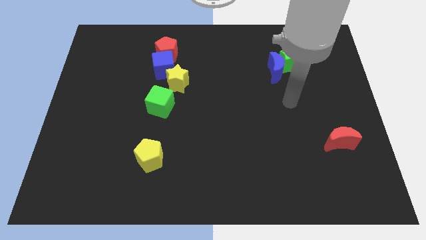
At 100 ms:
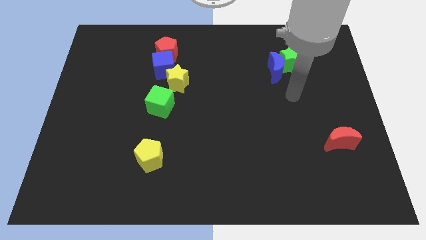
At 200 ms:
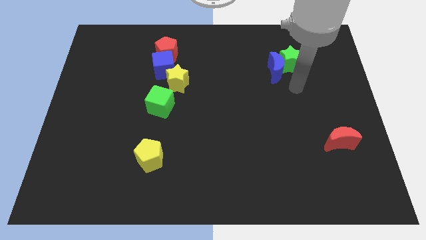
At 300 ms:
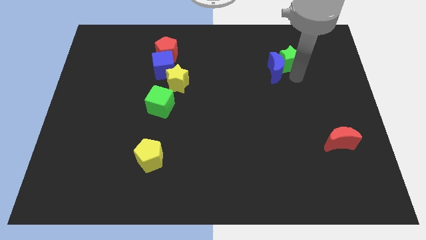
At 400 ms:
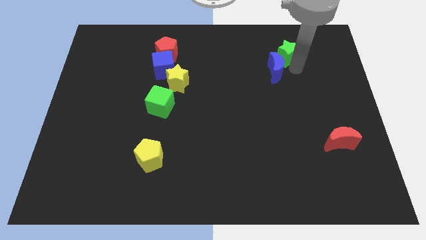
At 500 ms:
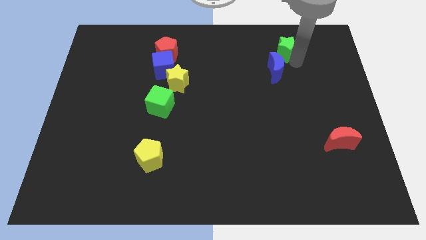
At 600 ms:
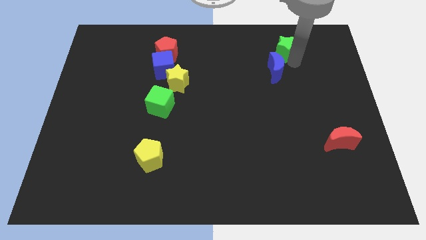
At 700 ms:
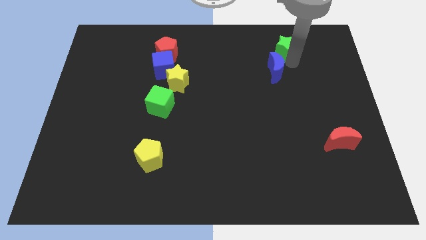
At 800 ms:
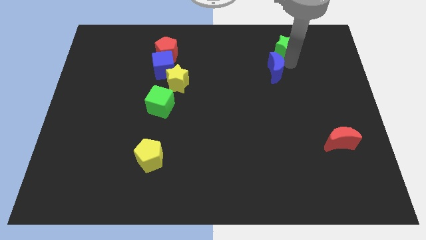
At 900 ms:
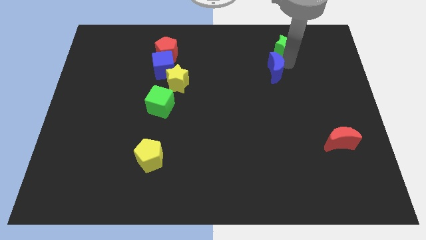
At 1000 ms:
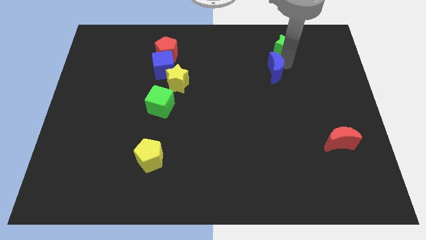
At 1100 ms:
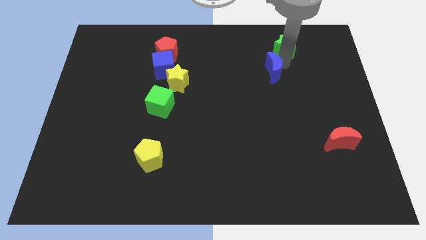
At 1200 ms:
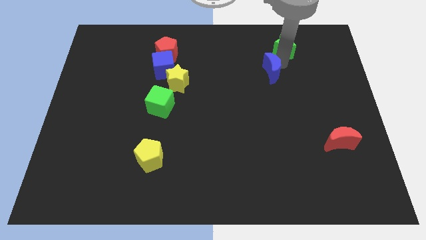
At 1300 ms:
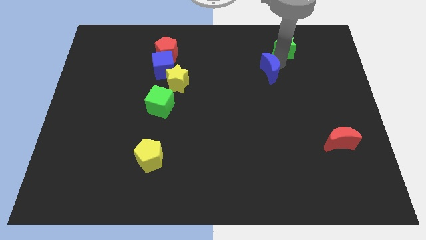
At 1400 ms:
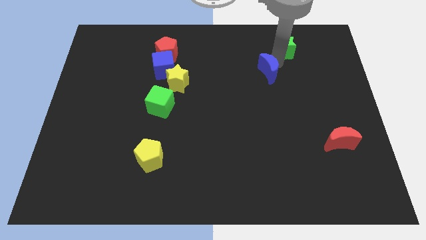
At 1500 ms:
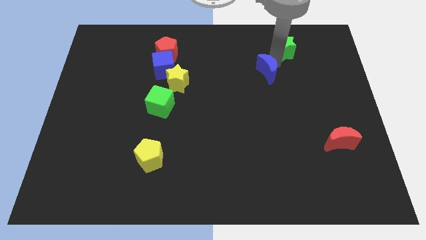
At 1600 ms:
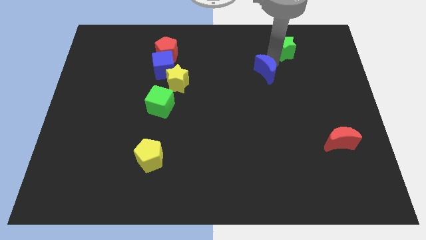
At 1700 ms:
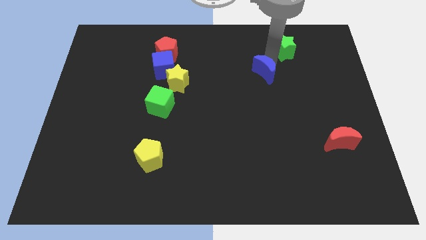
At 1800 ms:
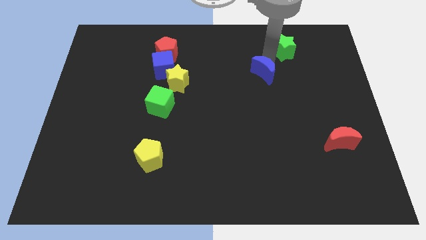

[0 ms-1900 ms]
separate the blue moon from the green star

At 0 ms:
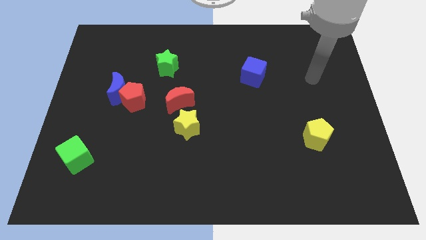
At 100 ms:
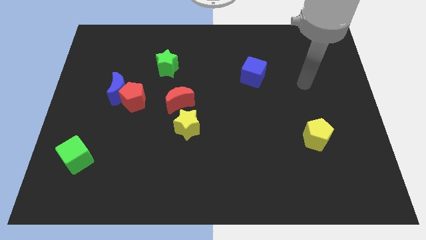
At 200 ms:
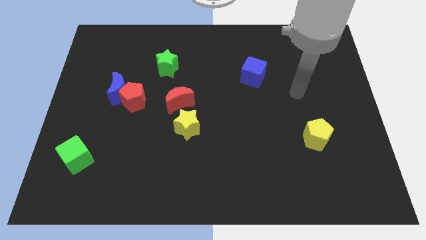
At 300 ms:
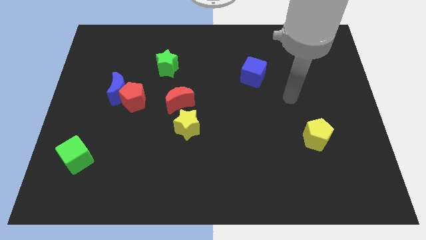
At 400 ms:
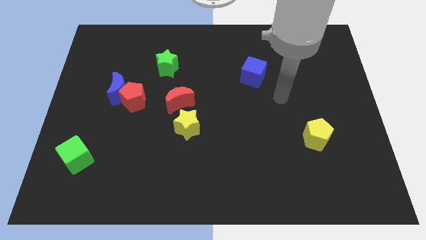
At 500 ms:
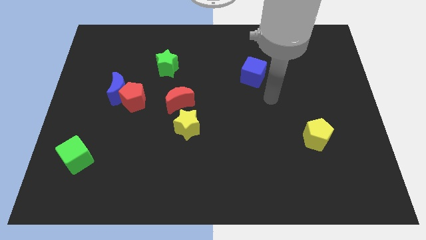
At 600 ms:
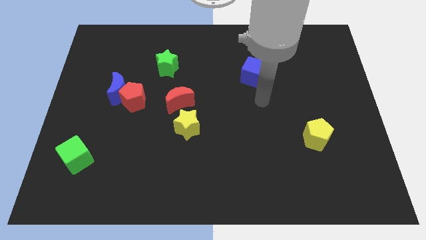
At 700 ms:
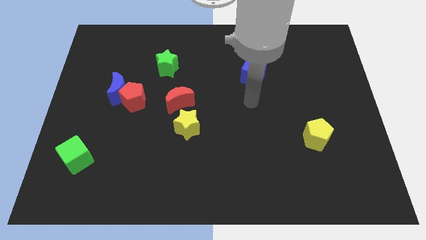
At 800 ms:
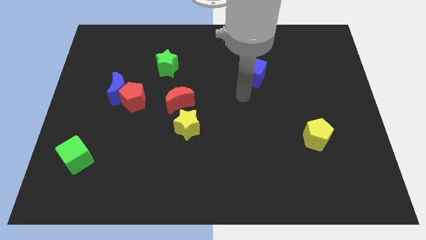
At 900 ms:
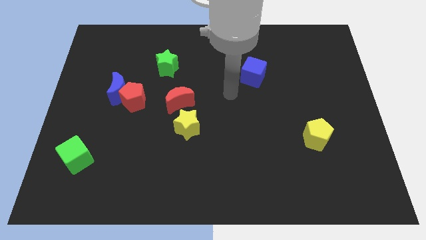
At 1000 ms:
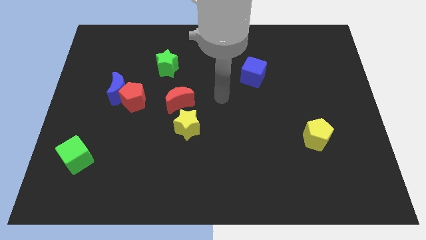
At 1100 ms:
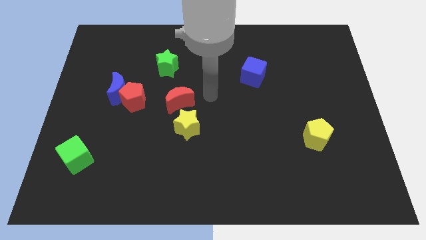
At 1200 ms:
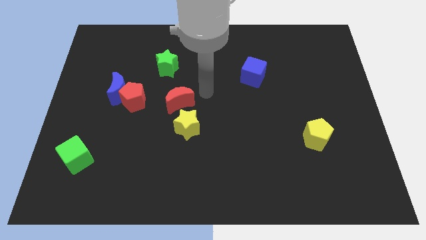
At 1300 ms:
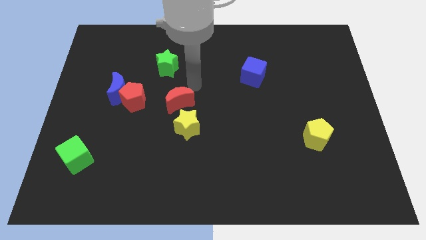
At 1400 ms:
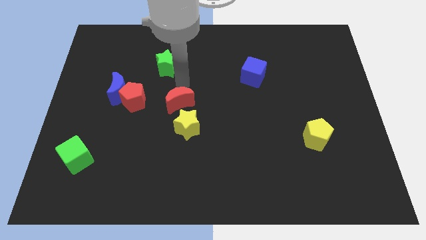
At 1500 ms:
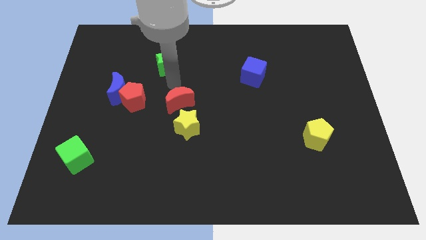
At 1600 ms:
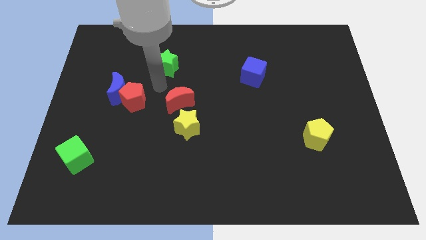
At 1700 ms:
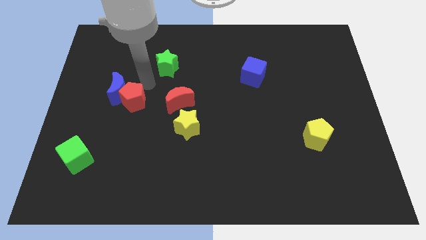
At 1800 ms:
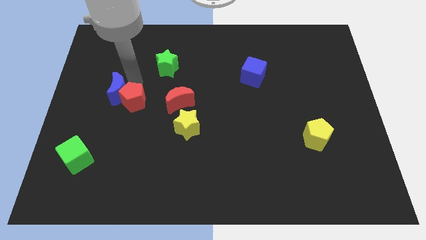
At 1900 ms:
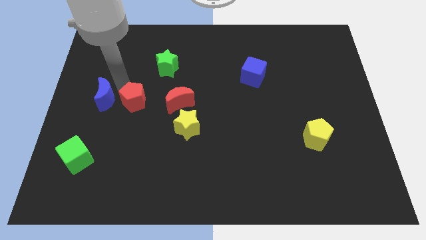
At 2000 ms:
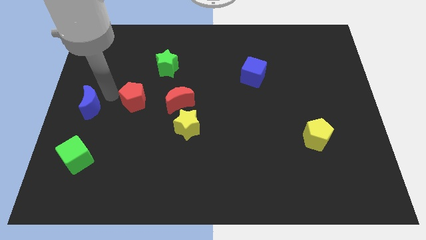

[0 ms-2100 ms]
separate the red pentagon from the blue moon

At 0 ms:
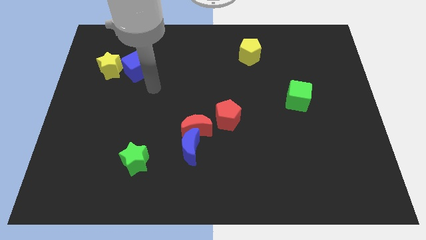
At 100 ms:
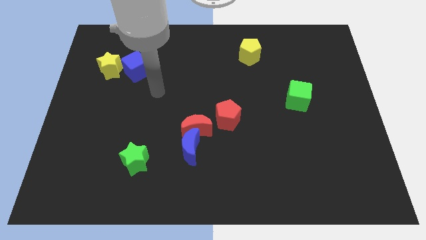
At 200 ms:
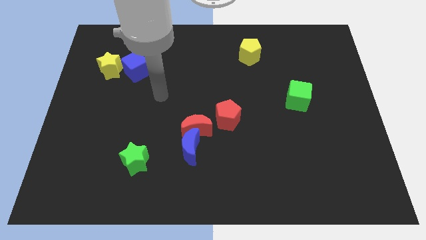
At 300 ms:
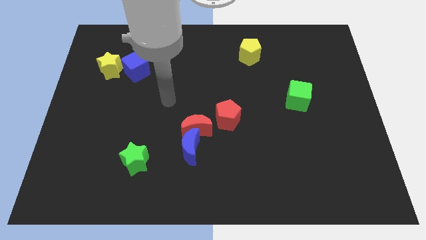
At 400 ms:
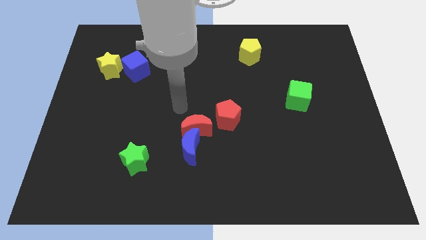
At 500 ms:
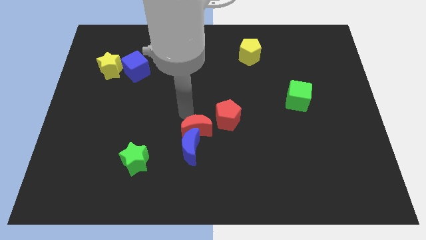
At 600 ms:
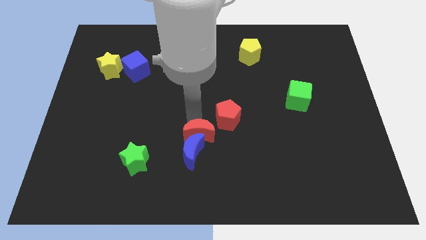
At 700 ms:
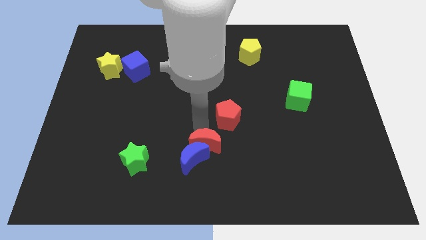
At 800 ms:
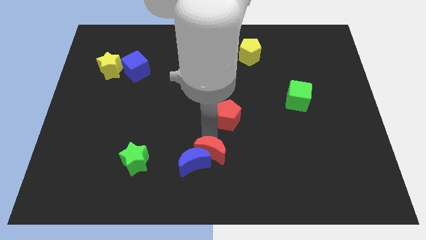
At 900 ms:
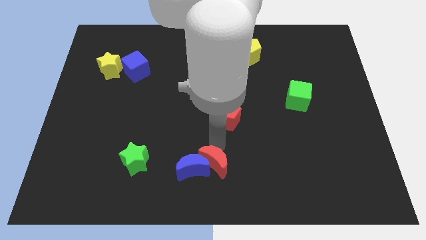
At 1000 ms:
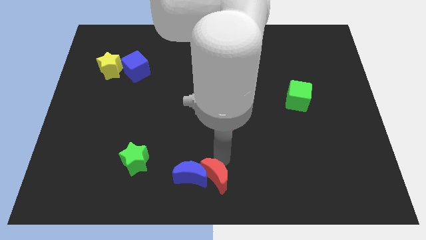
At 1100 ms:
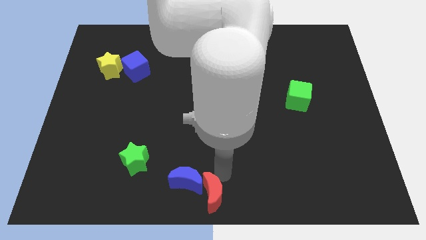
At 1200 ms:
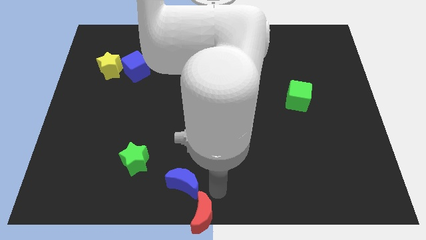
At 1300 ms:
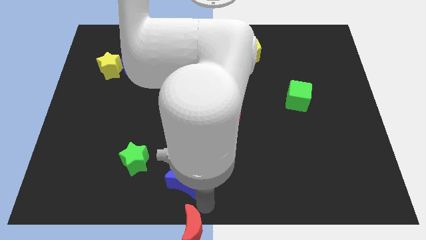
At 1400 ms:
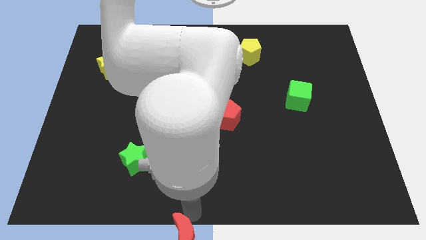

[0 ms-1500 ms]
pull the blue moon apart from the red moon

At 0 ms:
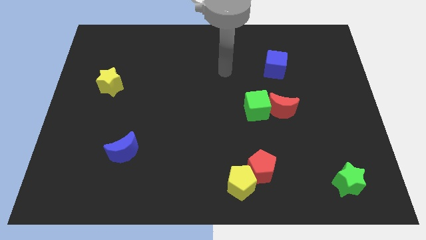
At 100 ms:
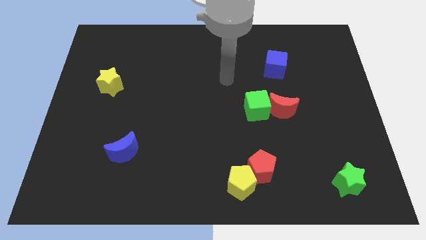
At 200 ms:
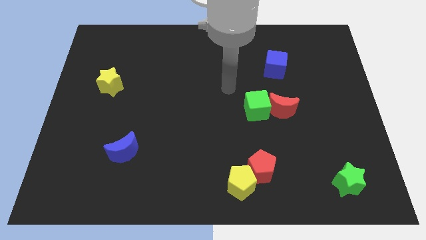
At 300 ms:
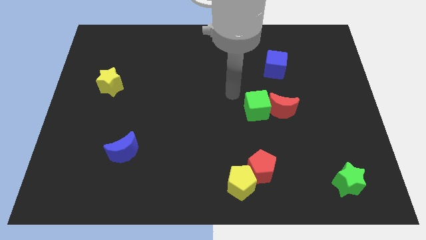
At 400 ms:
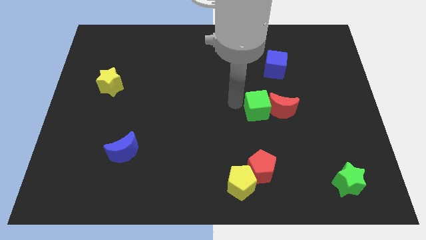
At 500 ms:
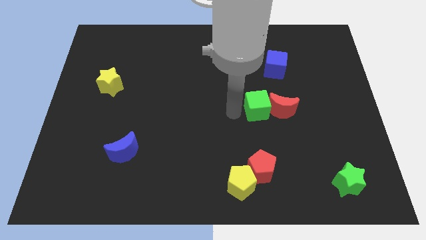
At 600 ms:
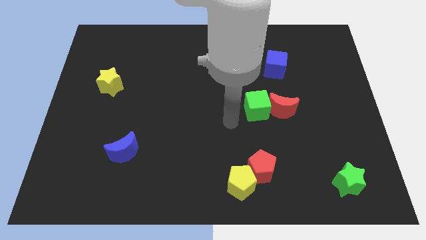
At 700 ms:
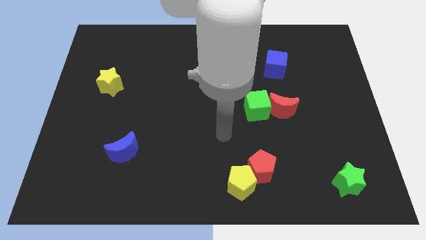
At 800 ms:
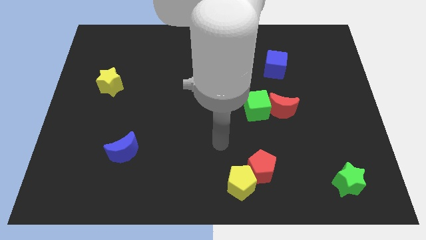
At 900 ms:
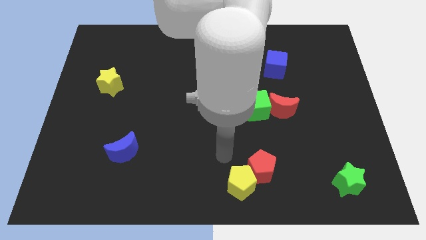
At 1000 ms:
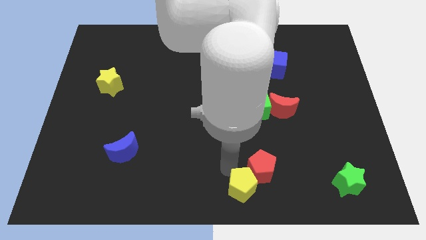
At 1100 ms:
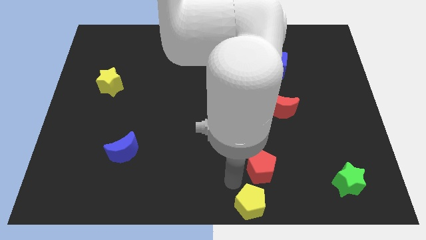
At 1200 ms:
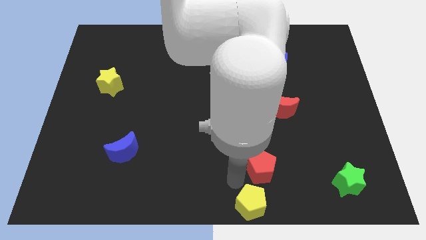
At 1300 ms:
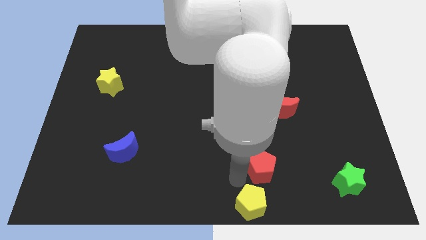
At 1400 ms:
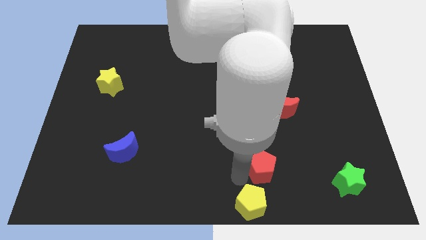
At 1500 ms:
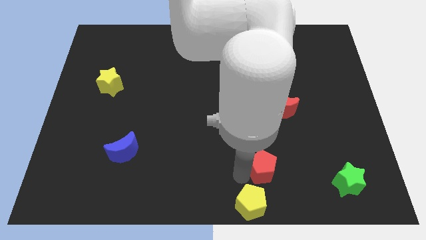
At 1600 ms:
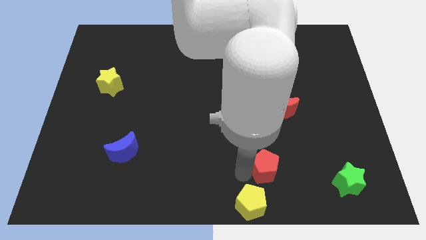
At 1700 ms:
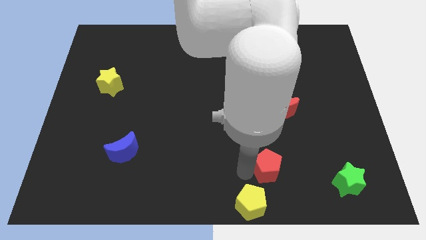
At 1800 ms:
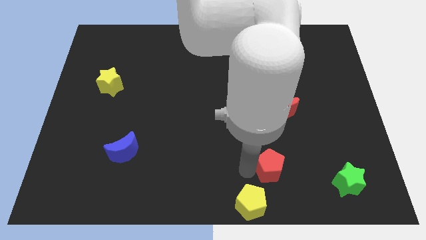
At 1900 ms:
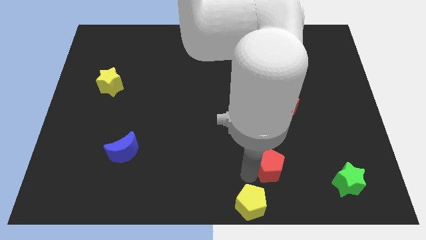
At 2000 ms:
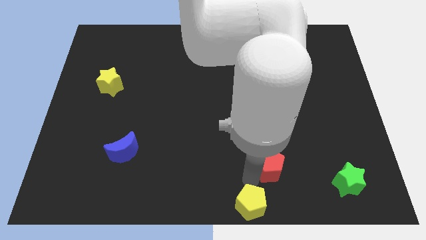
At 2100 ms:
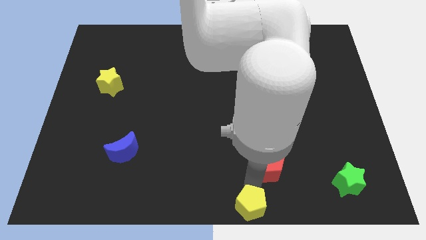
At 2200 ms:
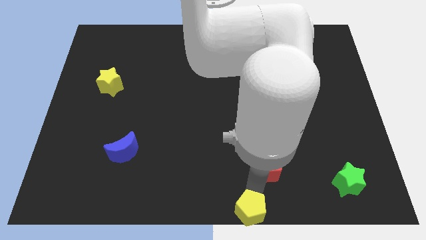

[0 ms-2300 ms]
move the red pentagon away from the yellow pentagon

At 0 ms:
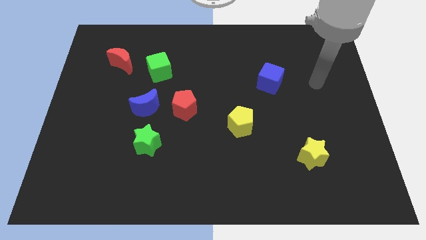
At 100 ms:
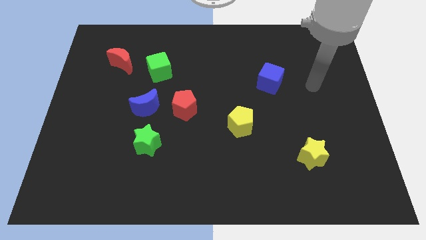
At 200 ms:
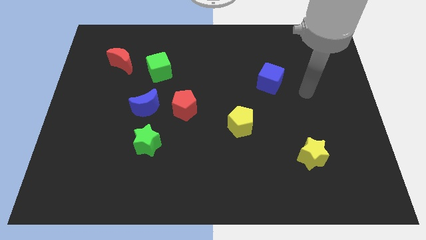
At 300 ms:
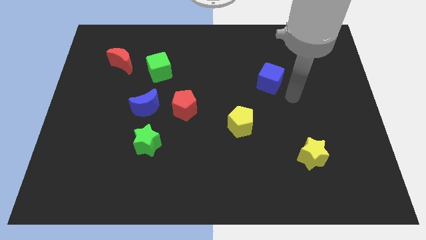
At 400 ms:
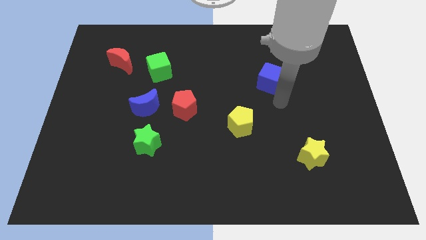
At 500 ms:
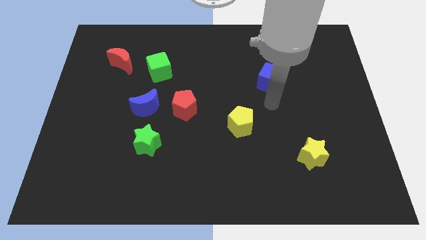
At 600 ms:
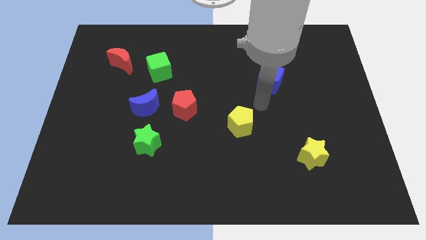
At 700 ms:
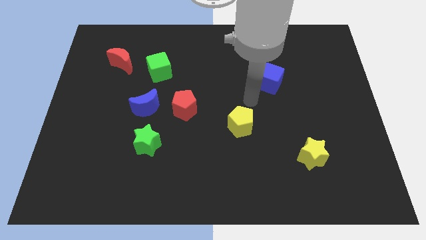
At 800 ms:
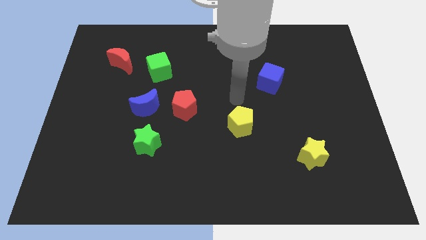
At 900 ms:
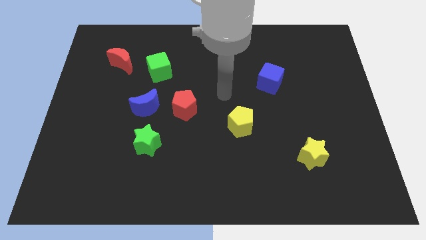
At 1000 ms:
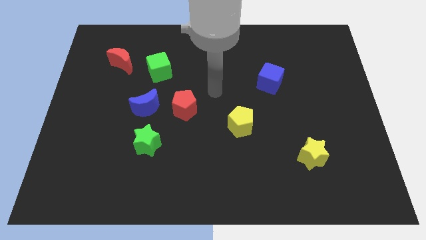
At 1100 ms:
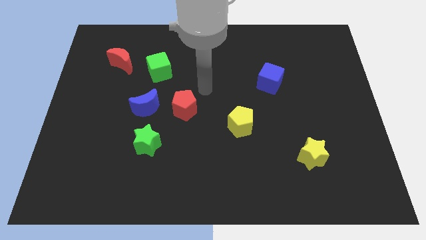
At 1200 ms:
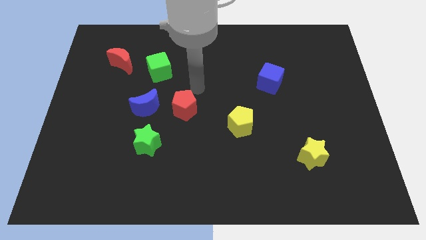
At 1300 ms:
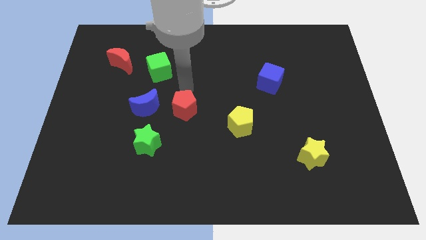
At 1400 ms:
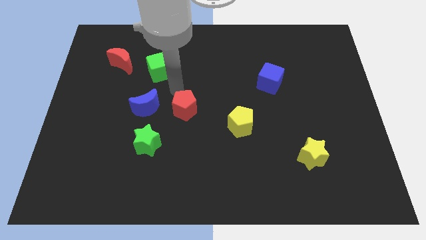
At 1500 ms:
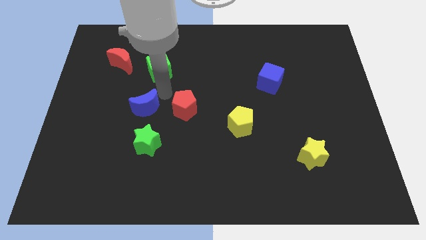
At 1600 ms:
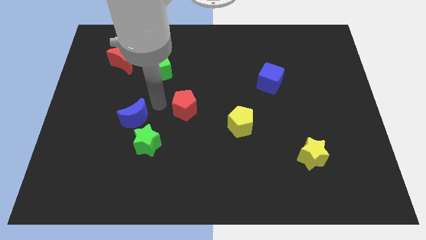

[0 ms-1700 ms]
move the red pentagon away from the blue moon
